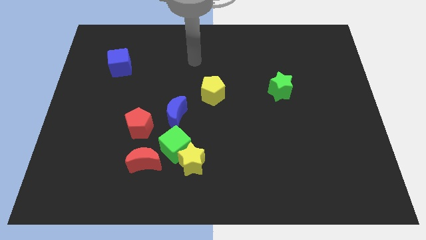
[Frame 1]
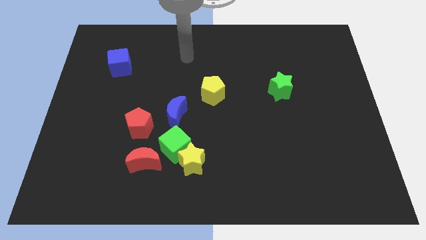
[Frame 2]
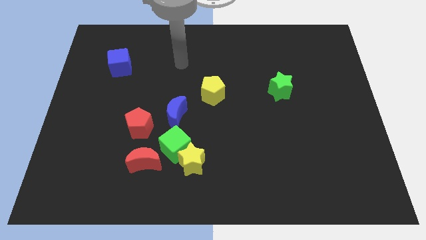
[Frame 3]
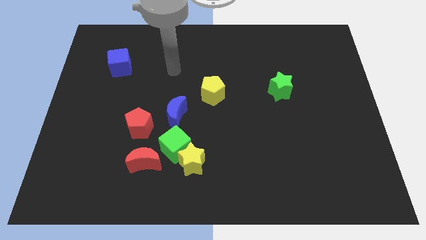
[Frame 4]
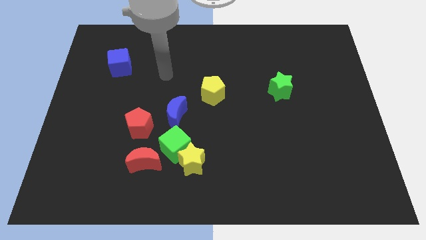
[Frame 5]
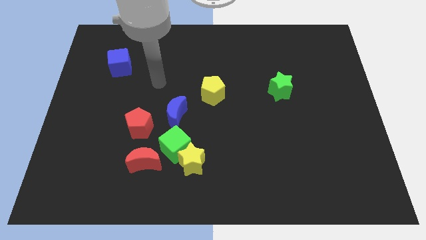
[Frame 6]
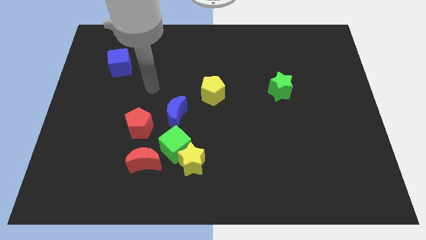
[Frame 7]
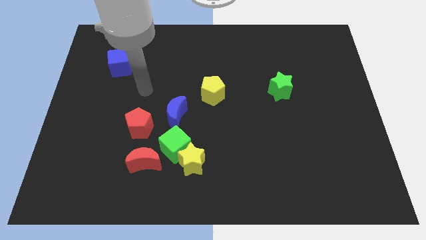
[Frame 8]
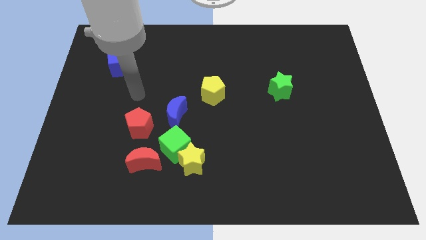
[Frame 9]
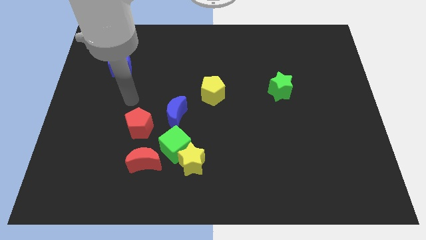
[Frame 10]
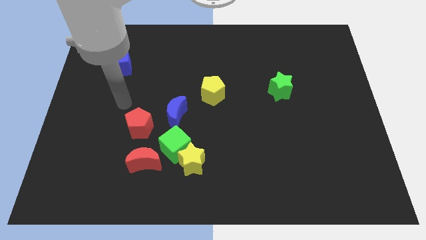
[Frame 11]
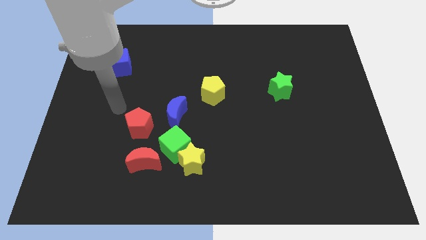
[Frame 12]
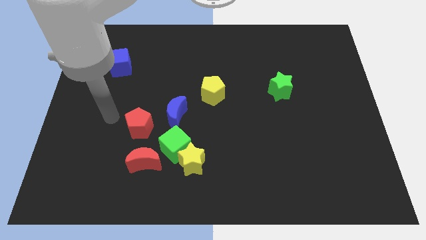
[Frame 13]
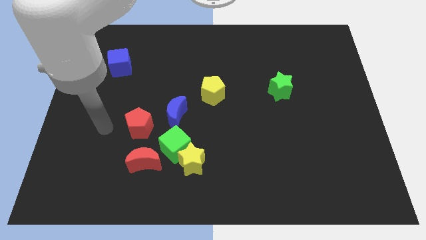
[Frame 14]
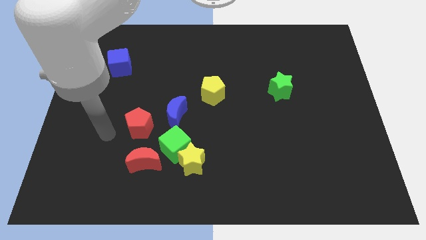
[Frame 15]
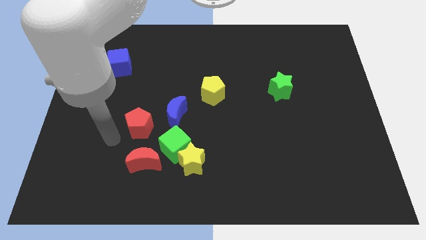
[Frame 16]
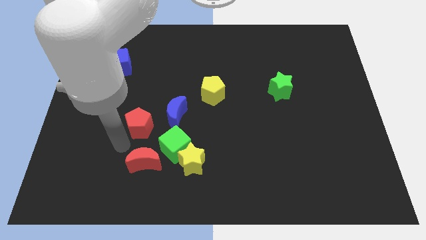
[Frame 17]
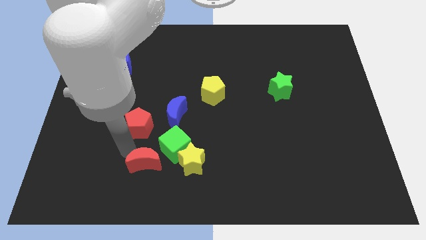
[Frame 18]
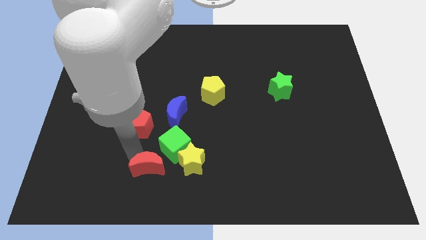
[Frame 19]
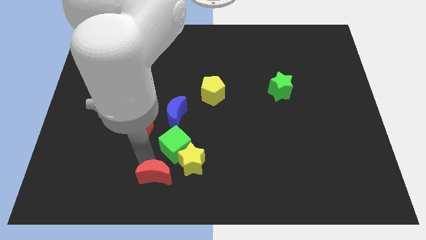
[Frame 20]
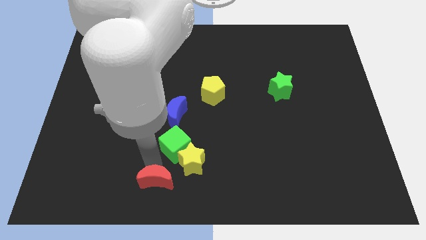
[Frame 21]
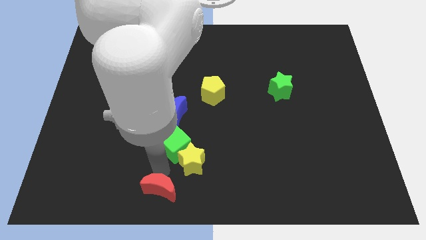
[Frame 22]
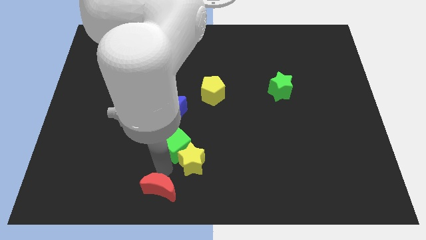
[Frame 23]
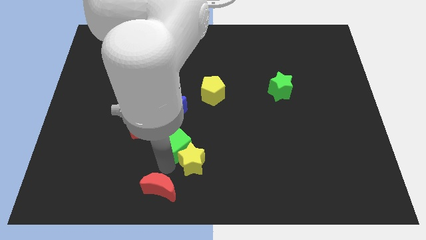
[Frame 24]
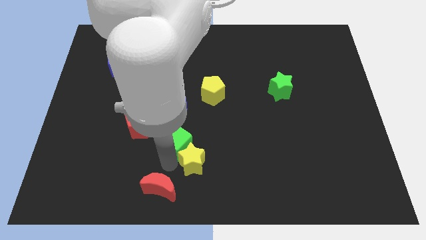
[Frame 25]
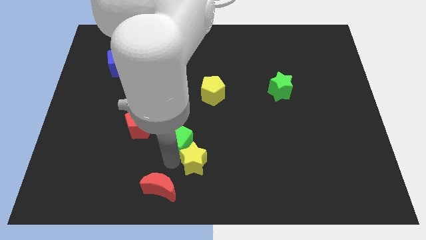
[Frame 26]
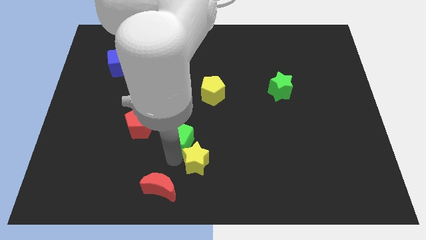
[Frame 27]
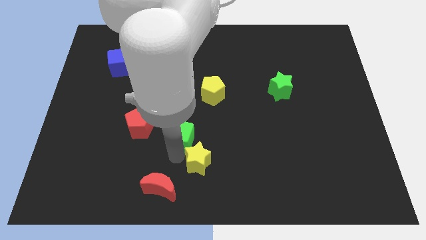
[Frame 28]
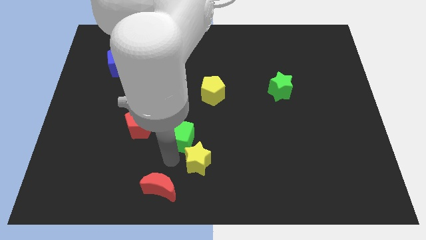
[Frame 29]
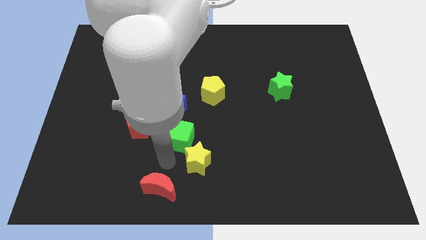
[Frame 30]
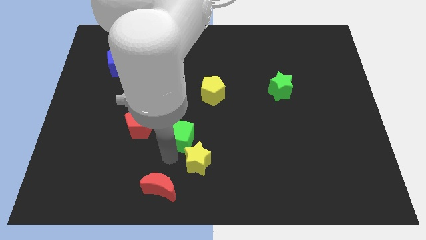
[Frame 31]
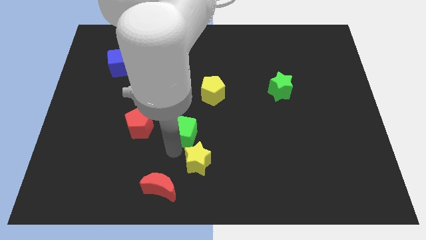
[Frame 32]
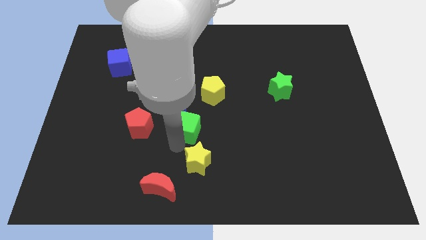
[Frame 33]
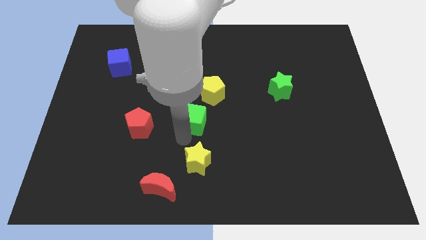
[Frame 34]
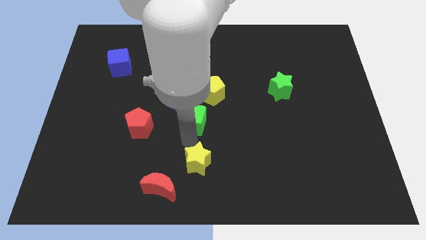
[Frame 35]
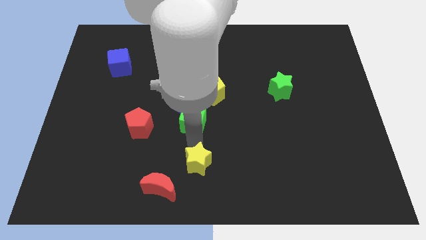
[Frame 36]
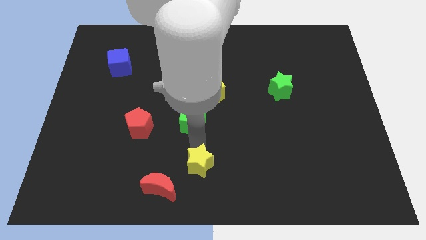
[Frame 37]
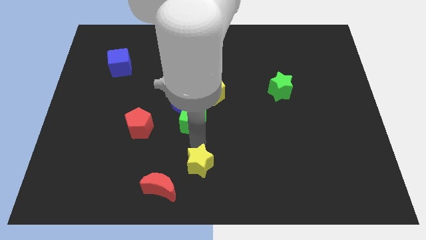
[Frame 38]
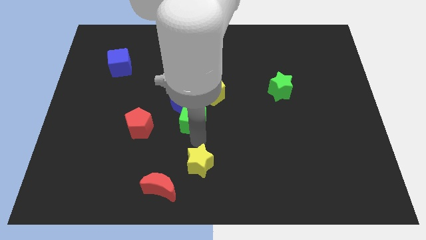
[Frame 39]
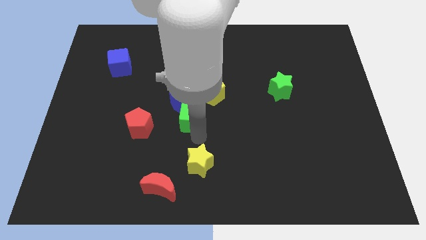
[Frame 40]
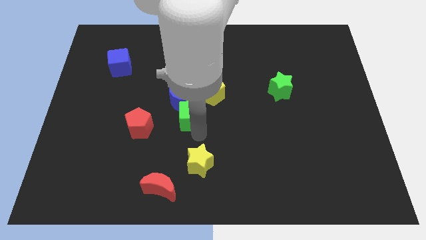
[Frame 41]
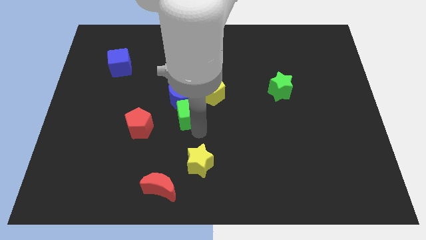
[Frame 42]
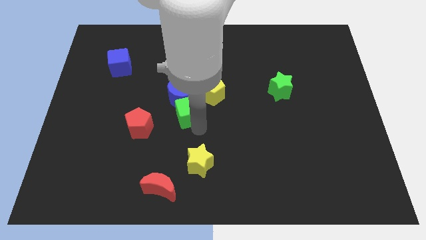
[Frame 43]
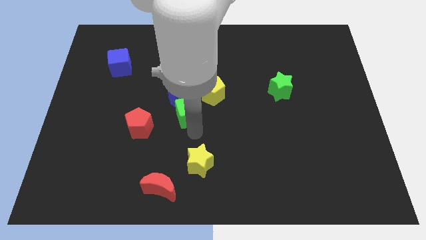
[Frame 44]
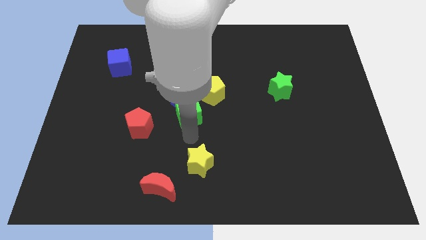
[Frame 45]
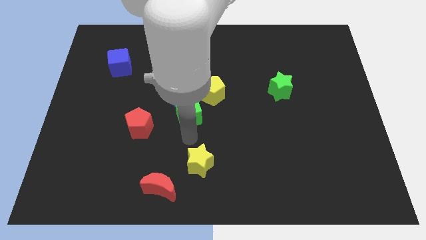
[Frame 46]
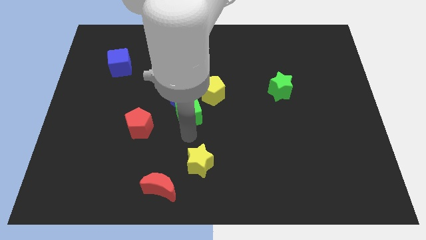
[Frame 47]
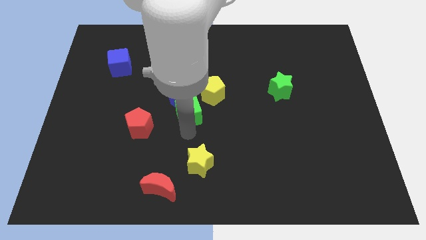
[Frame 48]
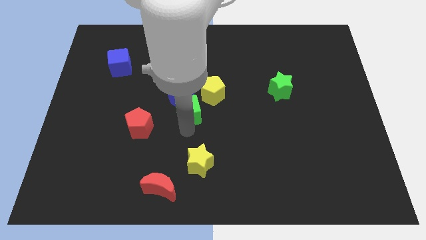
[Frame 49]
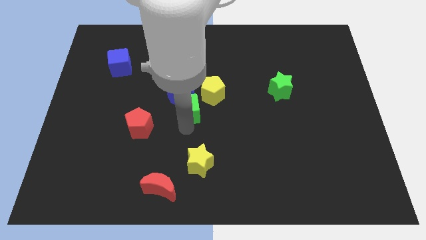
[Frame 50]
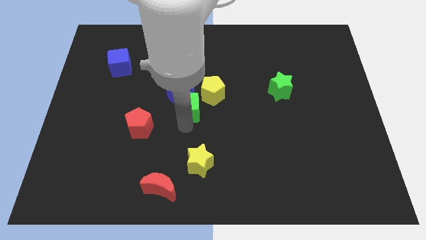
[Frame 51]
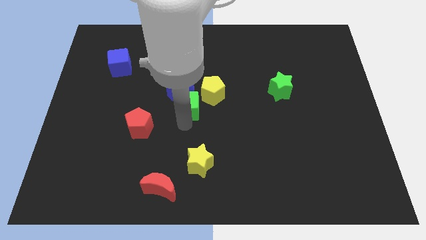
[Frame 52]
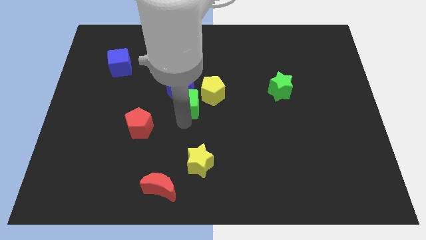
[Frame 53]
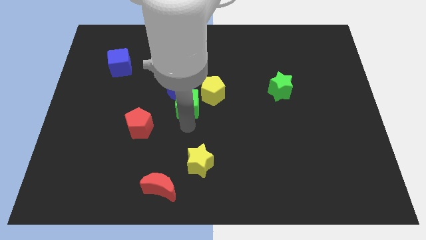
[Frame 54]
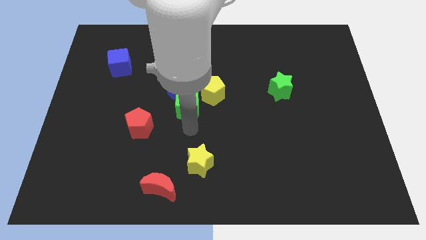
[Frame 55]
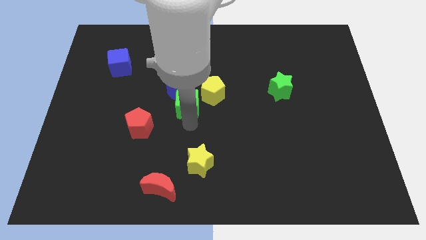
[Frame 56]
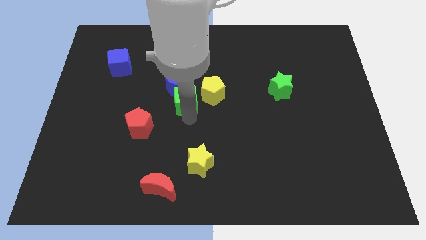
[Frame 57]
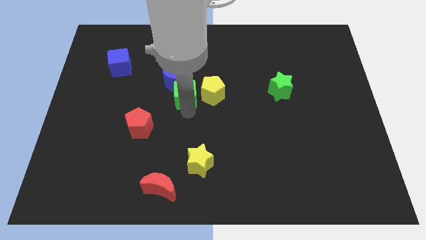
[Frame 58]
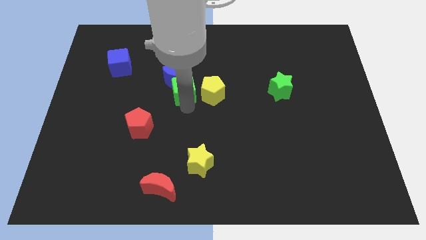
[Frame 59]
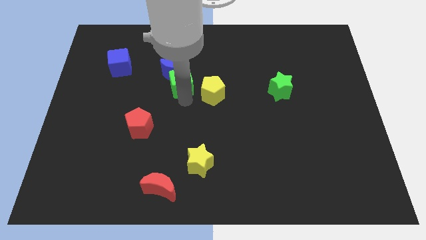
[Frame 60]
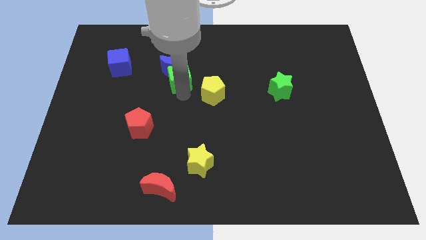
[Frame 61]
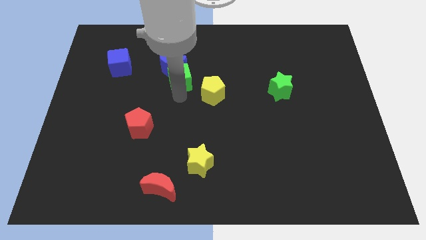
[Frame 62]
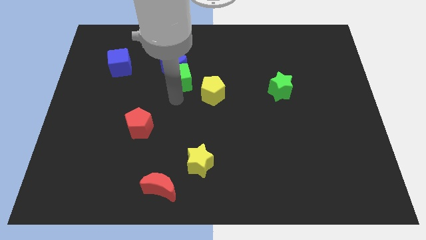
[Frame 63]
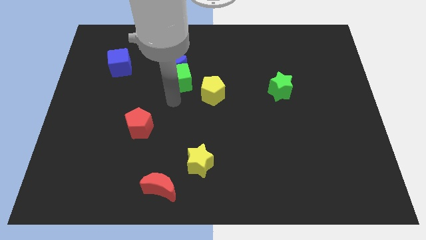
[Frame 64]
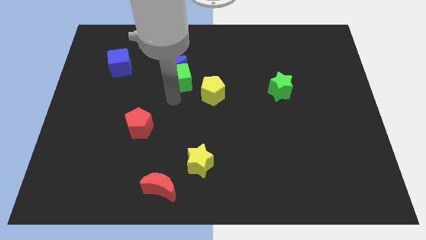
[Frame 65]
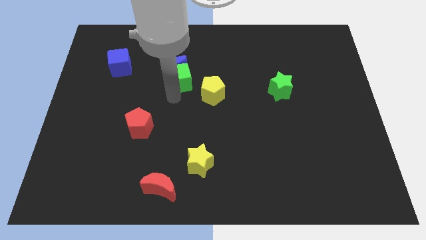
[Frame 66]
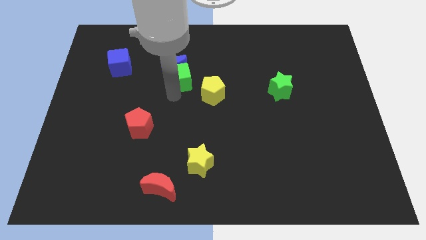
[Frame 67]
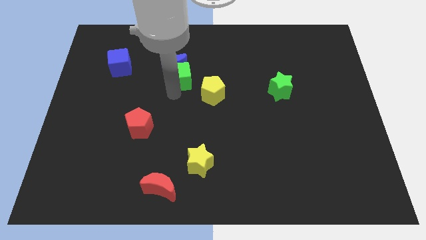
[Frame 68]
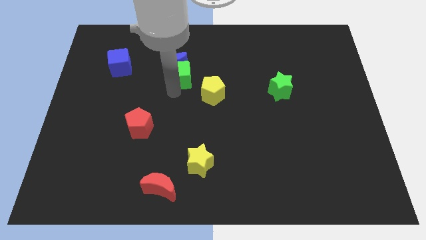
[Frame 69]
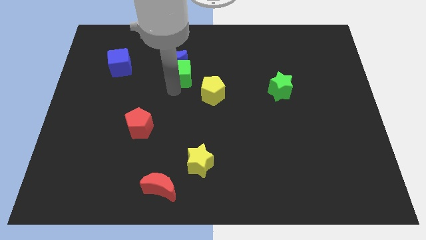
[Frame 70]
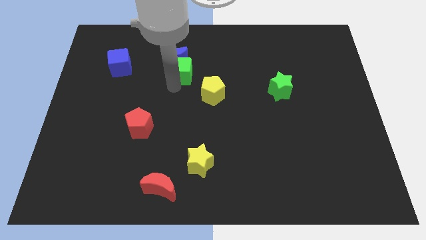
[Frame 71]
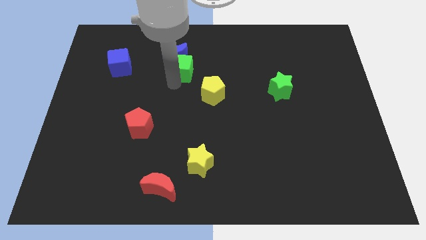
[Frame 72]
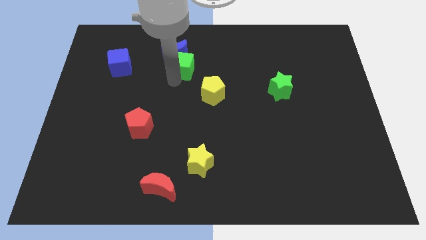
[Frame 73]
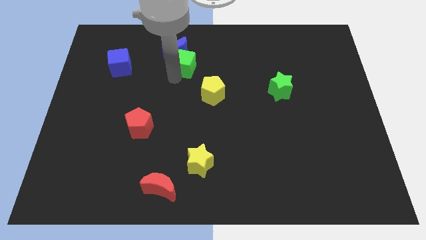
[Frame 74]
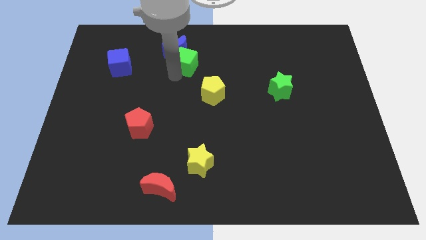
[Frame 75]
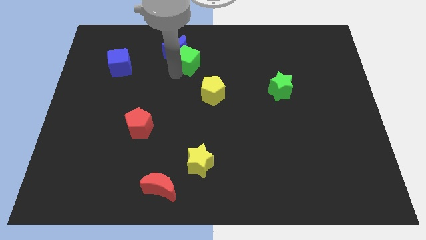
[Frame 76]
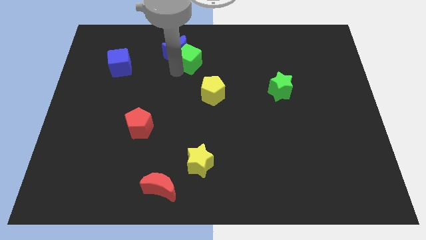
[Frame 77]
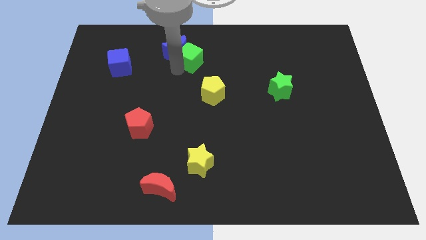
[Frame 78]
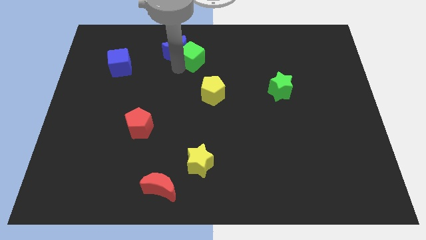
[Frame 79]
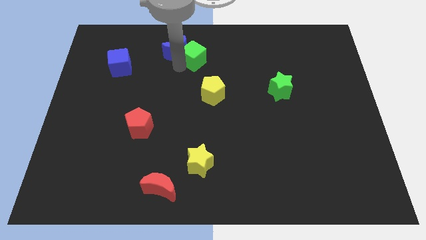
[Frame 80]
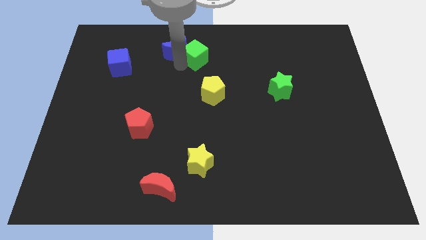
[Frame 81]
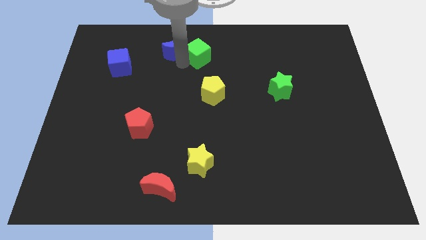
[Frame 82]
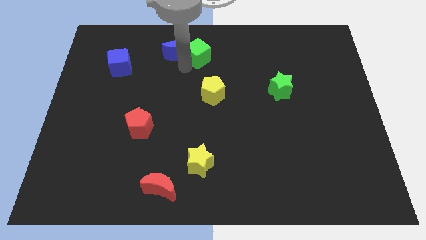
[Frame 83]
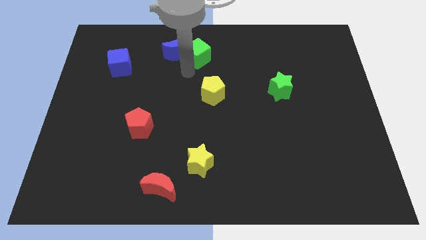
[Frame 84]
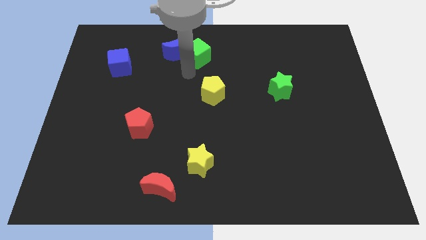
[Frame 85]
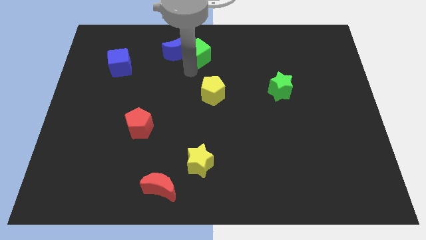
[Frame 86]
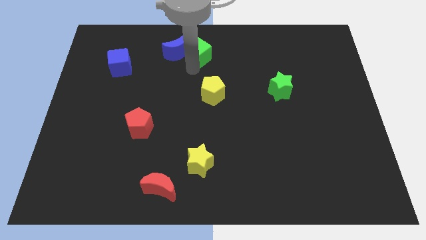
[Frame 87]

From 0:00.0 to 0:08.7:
slide the green cube to the towards your base
